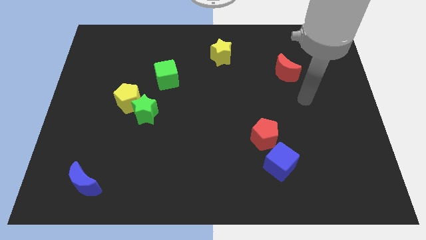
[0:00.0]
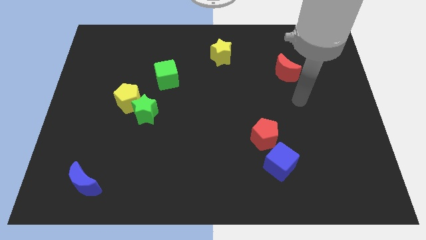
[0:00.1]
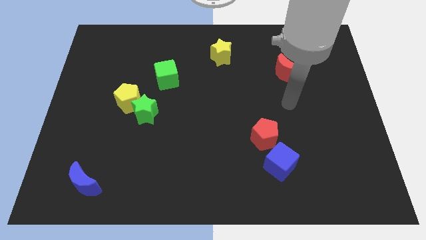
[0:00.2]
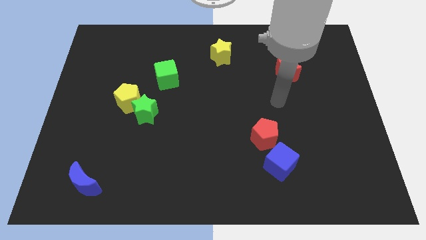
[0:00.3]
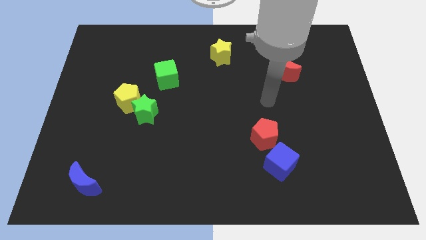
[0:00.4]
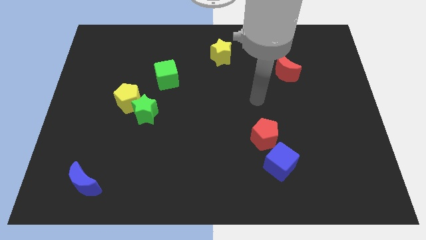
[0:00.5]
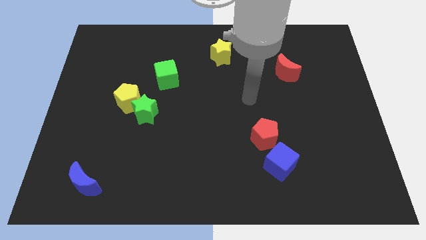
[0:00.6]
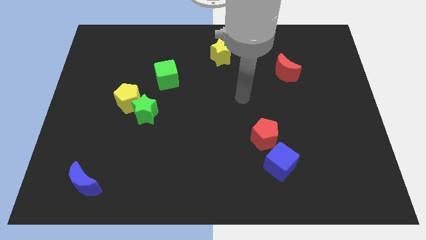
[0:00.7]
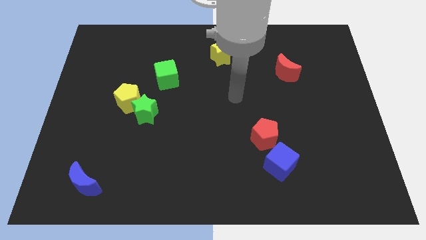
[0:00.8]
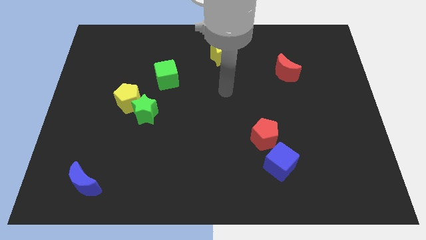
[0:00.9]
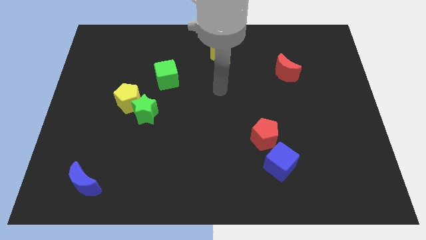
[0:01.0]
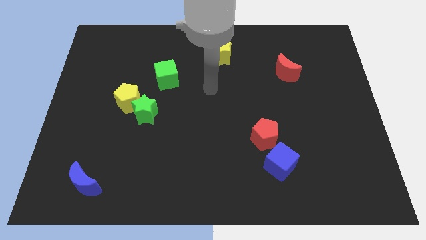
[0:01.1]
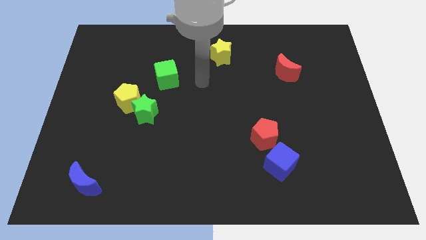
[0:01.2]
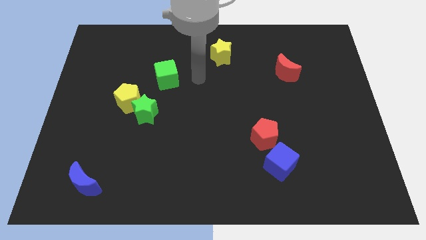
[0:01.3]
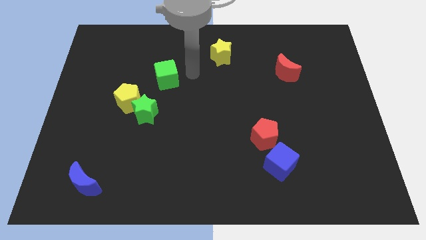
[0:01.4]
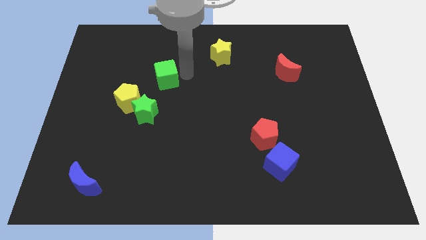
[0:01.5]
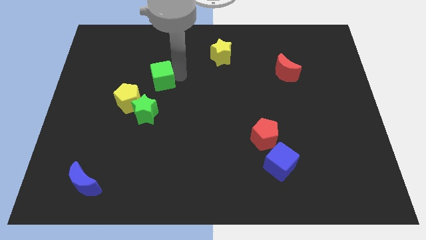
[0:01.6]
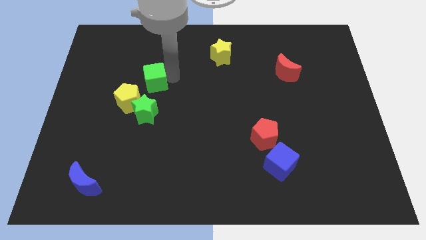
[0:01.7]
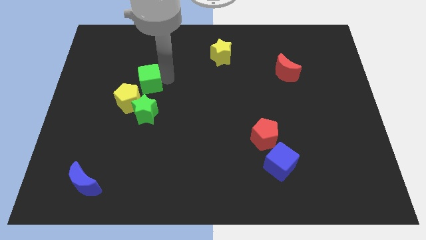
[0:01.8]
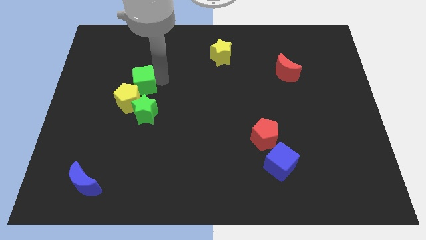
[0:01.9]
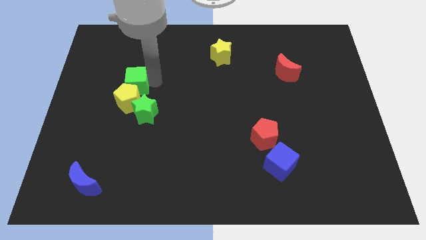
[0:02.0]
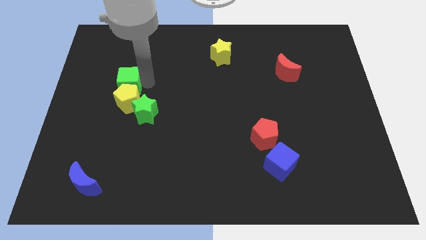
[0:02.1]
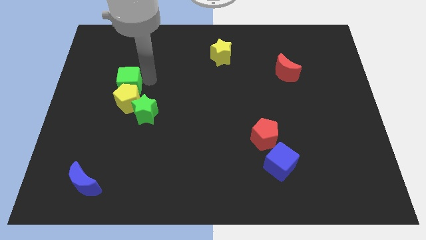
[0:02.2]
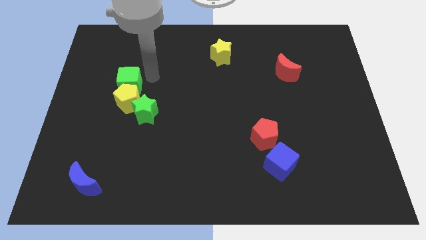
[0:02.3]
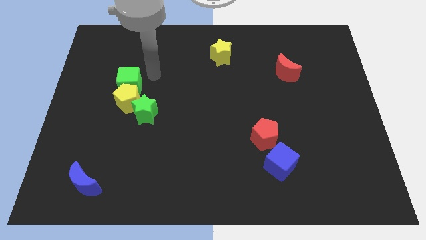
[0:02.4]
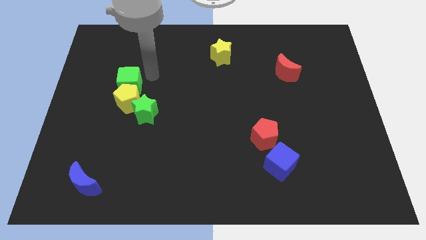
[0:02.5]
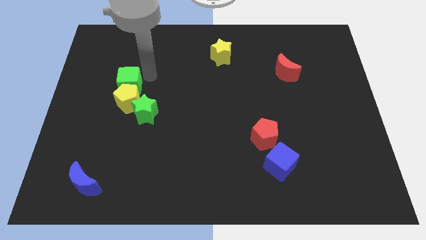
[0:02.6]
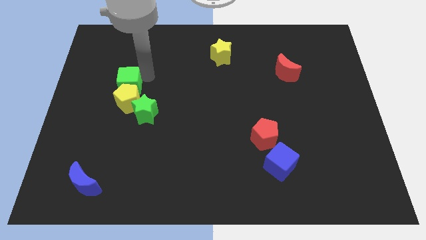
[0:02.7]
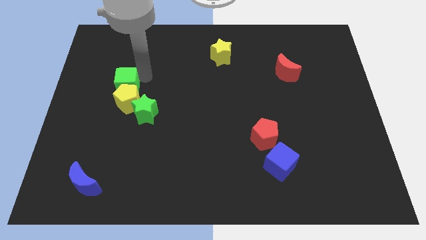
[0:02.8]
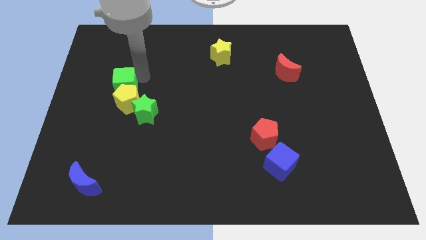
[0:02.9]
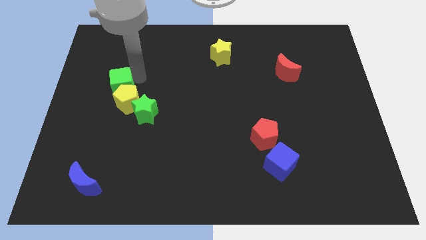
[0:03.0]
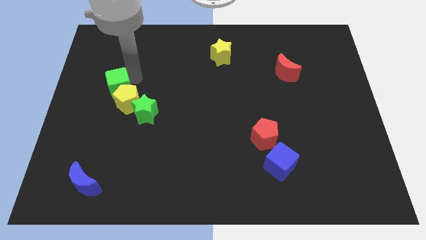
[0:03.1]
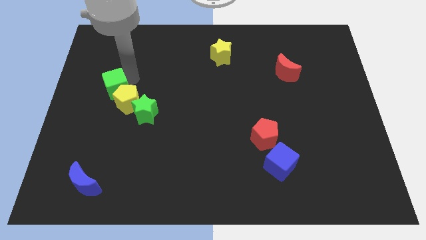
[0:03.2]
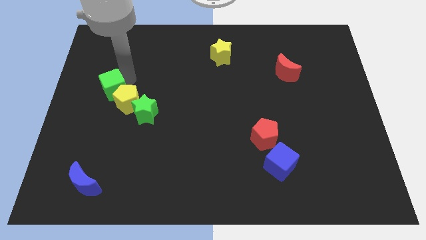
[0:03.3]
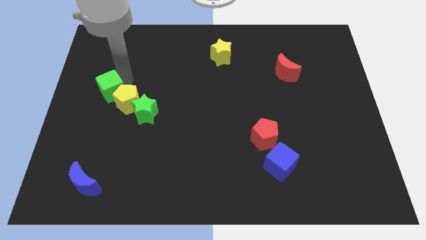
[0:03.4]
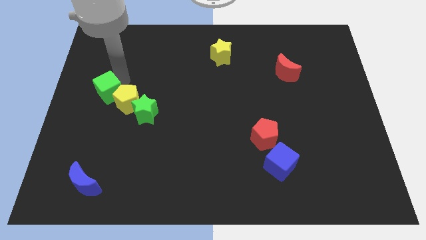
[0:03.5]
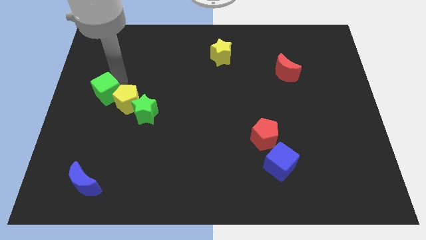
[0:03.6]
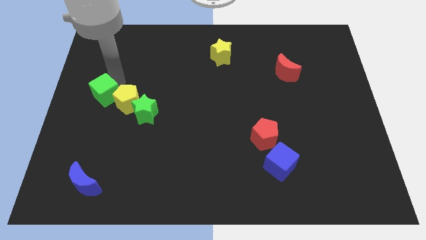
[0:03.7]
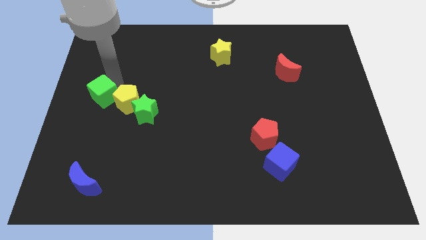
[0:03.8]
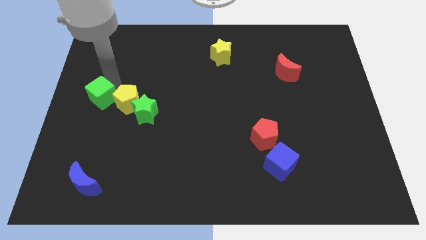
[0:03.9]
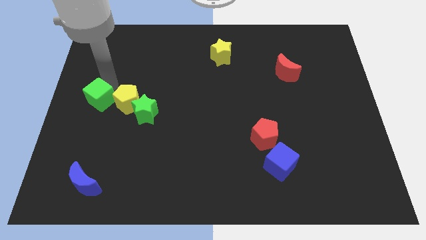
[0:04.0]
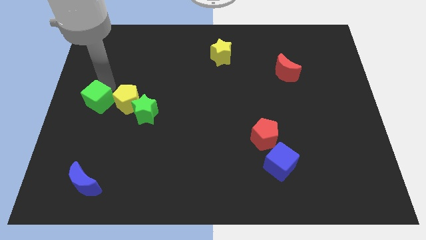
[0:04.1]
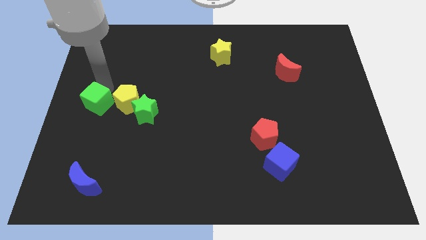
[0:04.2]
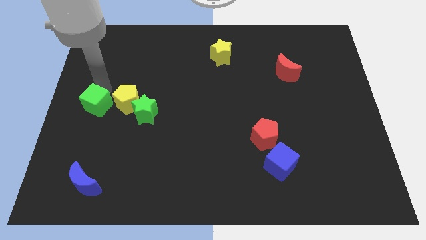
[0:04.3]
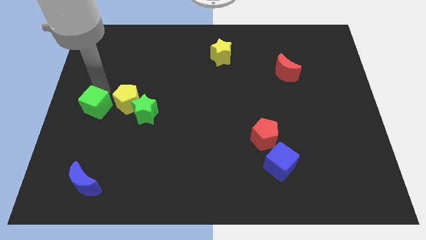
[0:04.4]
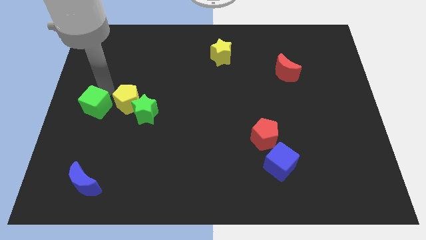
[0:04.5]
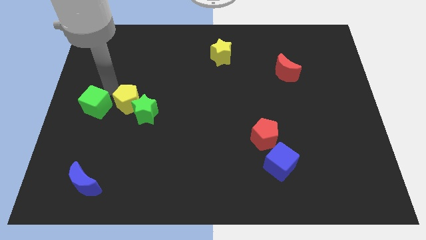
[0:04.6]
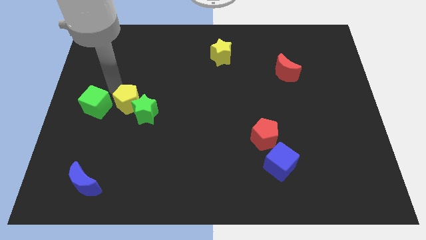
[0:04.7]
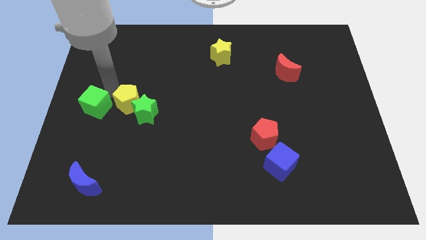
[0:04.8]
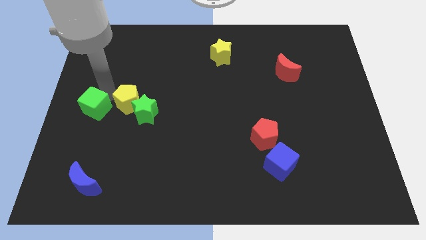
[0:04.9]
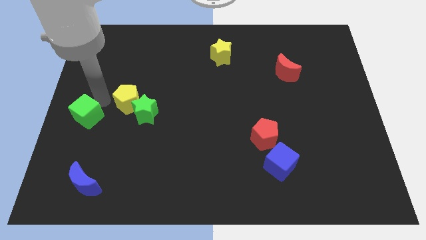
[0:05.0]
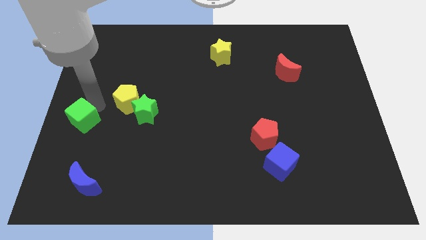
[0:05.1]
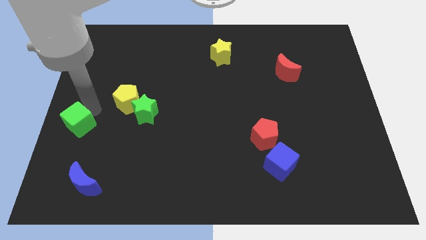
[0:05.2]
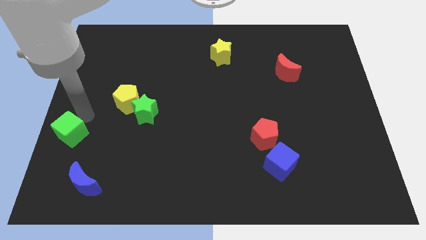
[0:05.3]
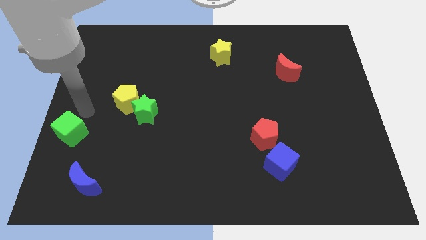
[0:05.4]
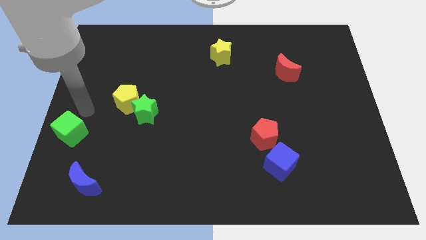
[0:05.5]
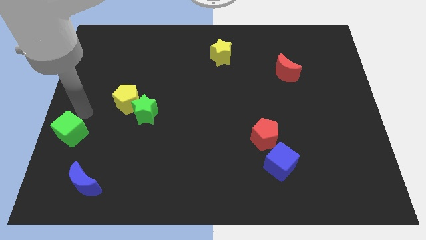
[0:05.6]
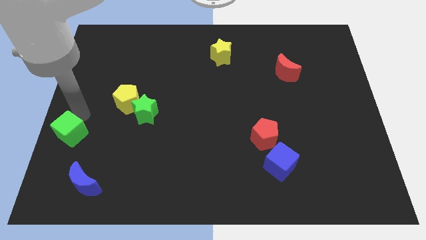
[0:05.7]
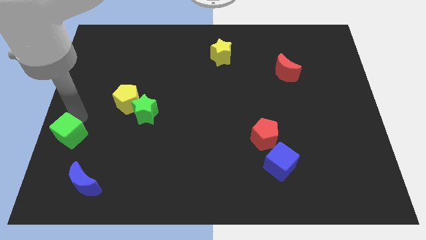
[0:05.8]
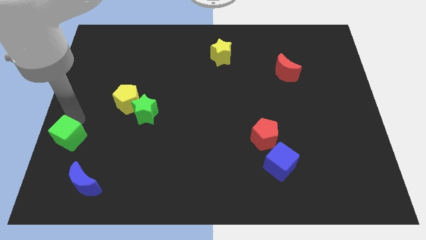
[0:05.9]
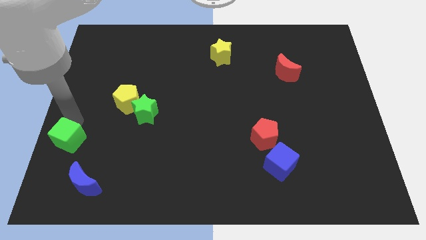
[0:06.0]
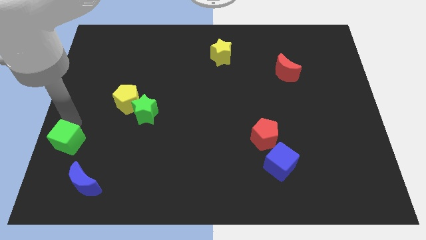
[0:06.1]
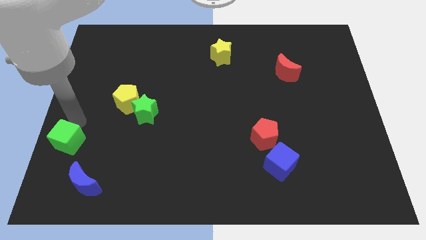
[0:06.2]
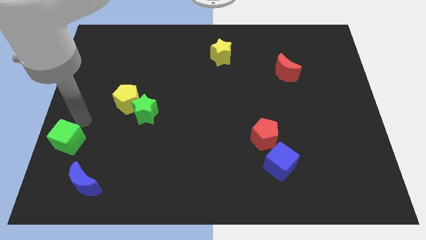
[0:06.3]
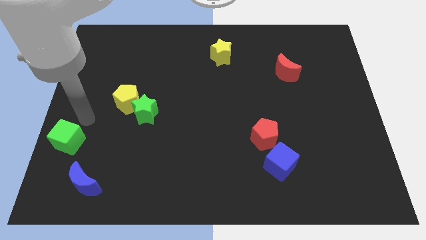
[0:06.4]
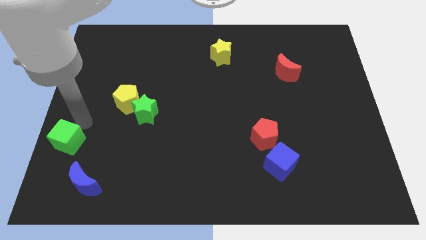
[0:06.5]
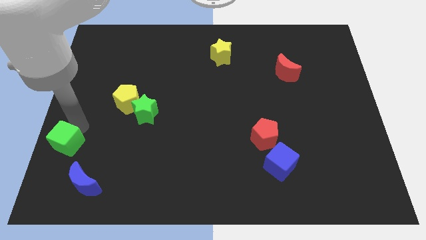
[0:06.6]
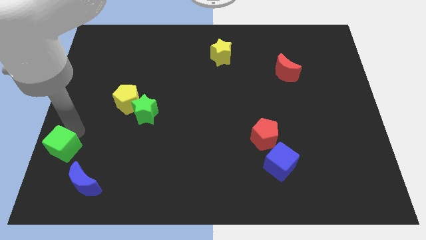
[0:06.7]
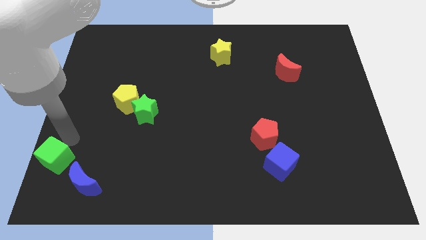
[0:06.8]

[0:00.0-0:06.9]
move the green cube to the bottom left corner
